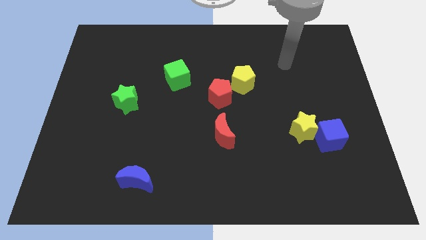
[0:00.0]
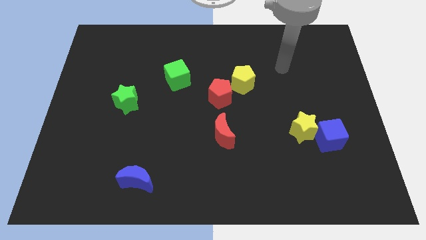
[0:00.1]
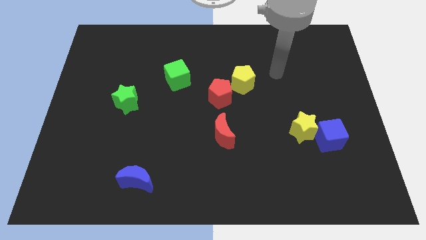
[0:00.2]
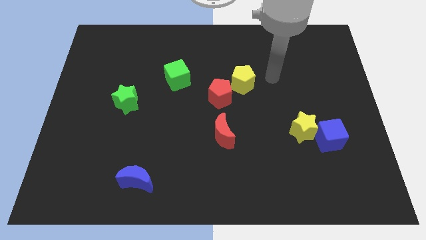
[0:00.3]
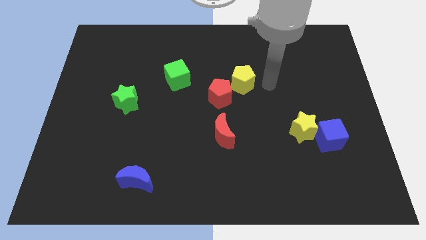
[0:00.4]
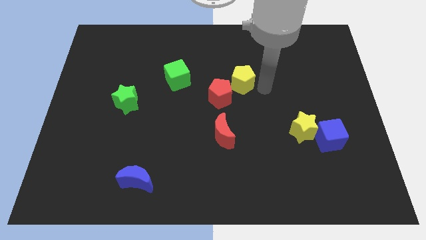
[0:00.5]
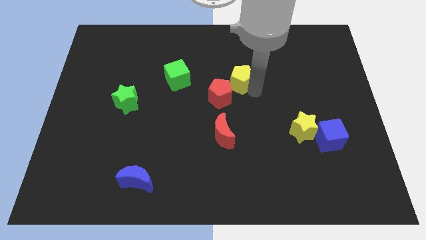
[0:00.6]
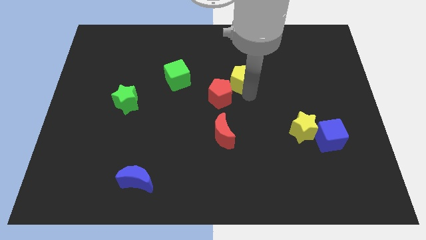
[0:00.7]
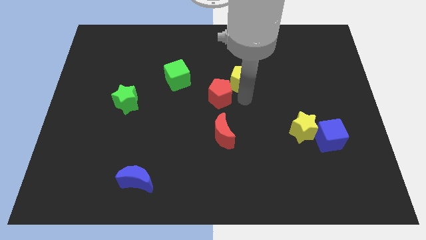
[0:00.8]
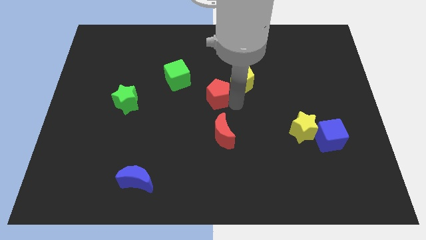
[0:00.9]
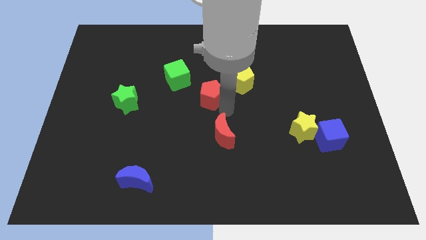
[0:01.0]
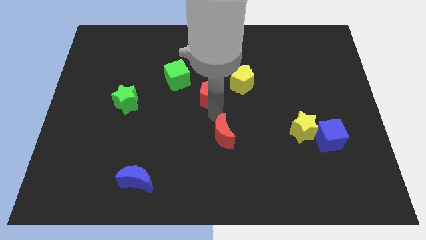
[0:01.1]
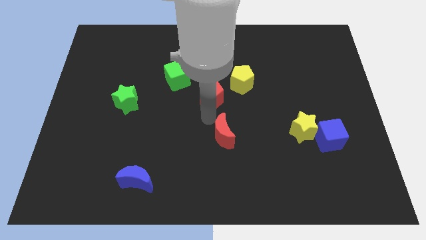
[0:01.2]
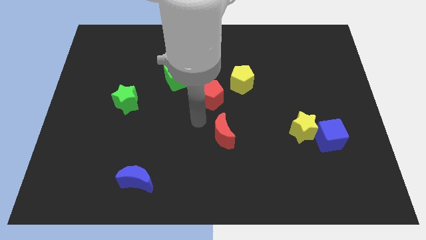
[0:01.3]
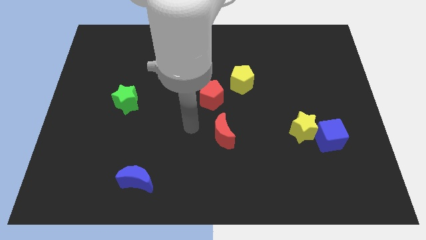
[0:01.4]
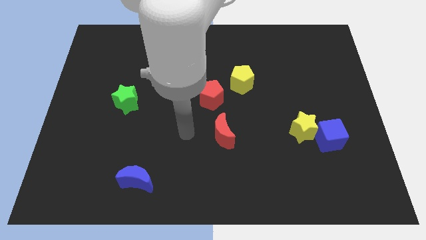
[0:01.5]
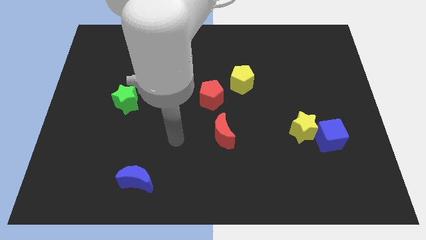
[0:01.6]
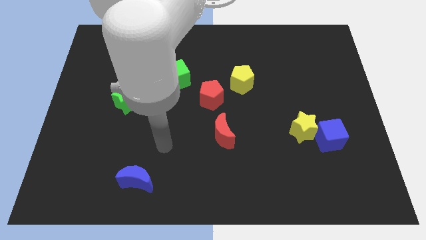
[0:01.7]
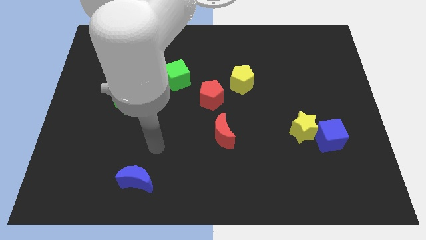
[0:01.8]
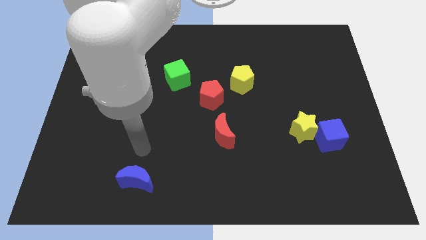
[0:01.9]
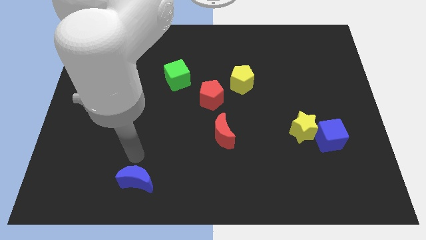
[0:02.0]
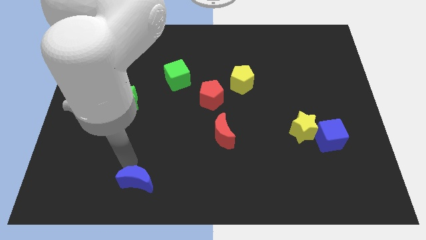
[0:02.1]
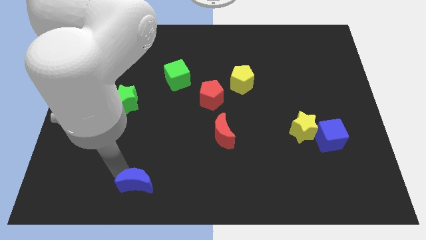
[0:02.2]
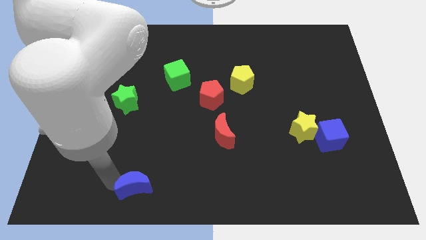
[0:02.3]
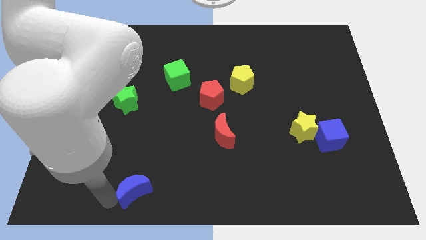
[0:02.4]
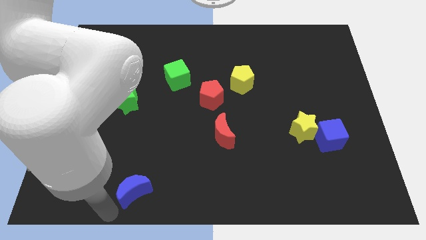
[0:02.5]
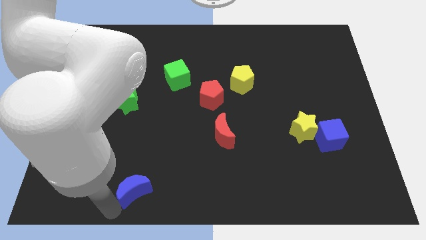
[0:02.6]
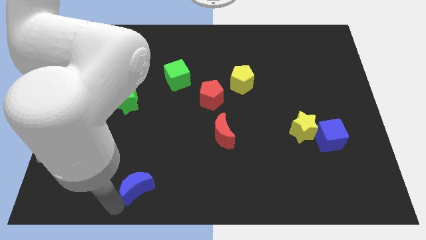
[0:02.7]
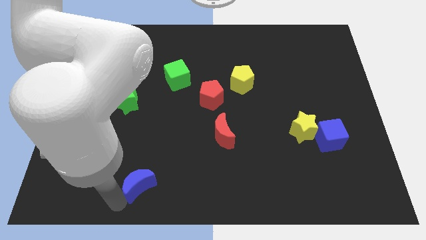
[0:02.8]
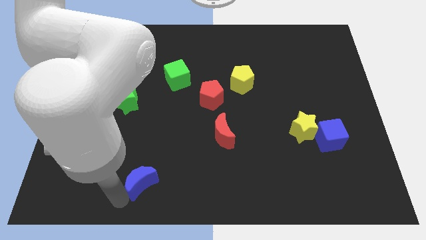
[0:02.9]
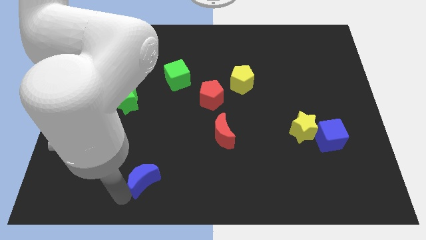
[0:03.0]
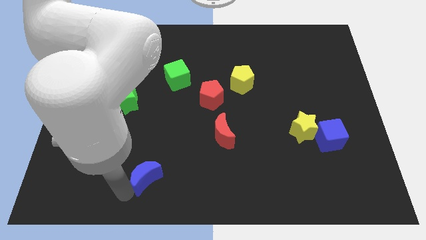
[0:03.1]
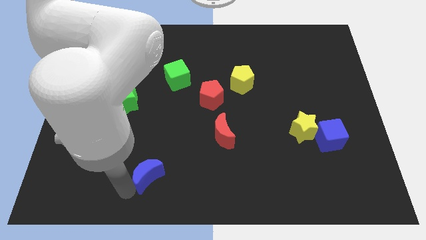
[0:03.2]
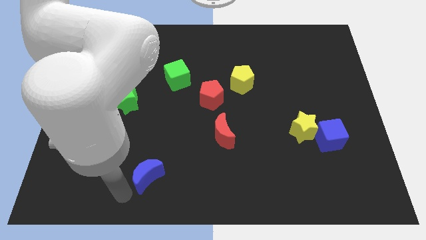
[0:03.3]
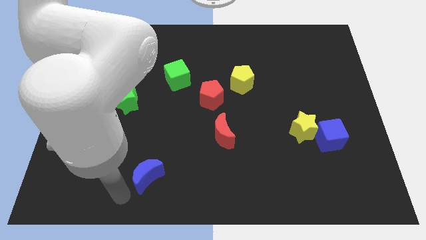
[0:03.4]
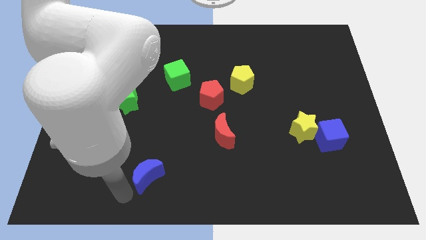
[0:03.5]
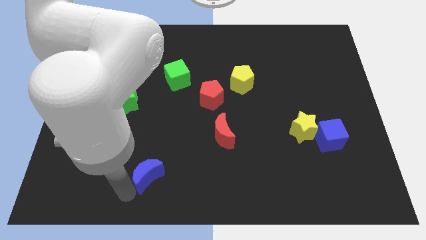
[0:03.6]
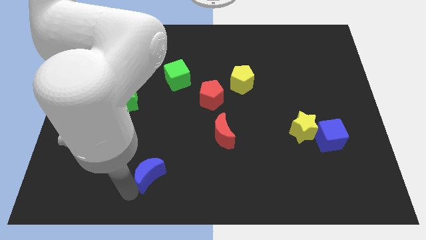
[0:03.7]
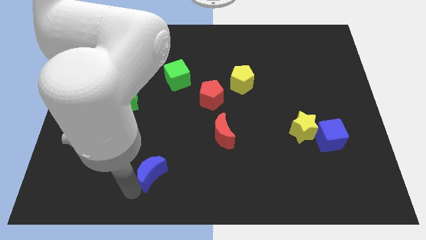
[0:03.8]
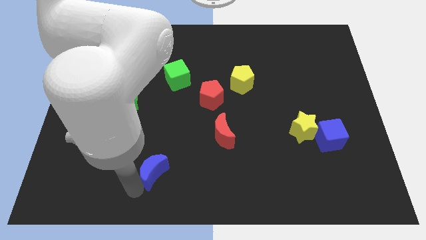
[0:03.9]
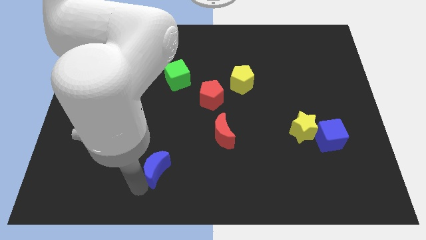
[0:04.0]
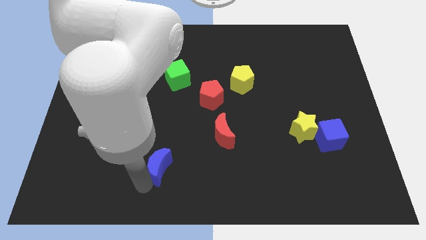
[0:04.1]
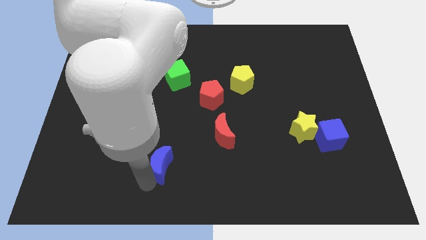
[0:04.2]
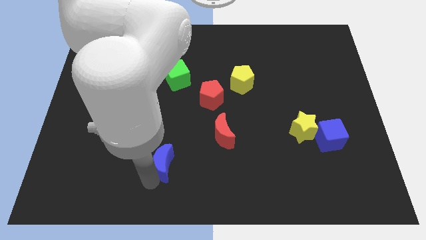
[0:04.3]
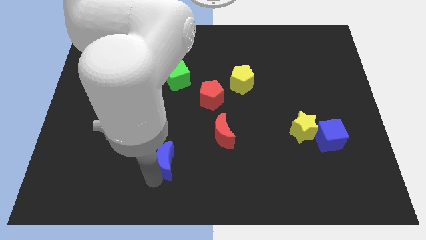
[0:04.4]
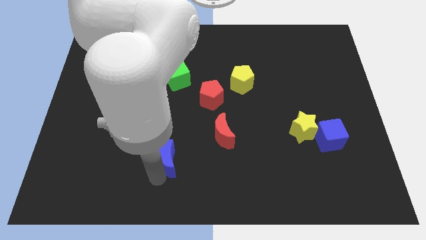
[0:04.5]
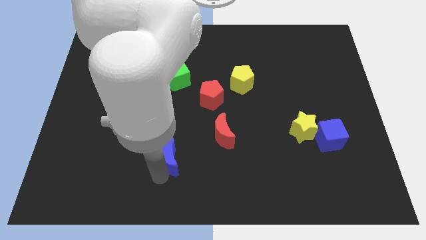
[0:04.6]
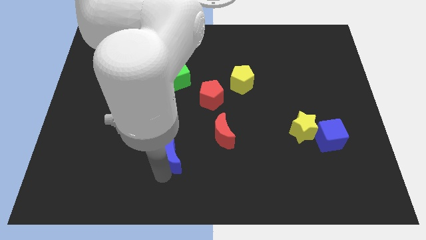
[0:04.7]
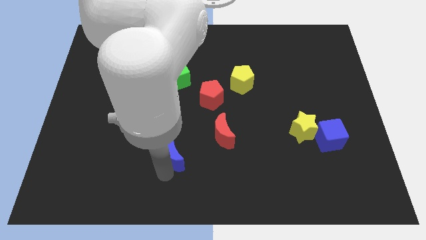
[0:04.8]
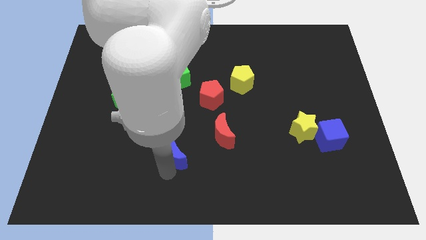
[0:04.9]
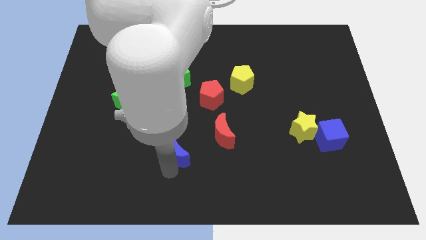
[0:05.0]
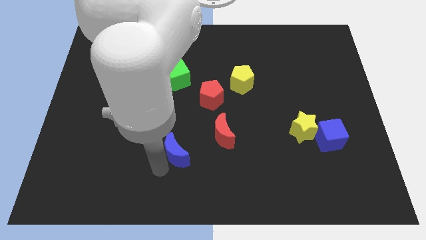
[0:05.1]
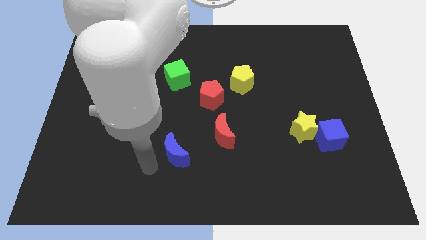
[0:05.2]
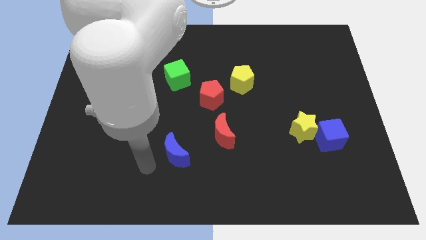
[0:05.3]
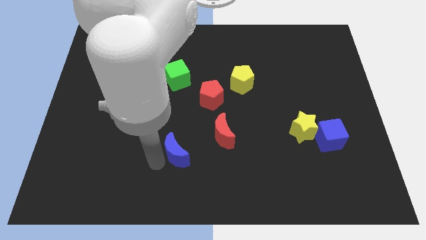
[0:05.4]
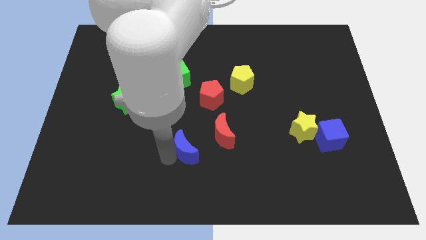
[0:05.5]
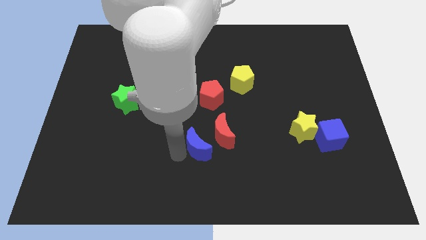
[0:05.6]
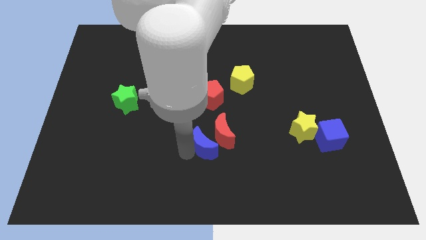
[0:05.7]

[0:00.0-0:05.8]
put the blue moon towards the red moon

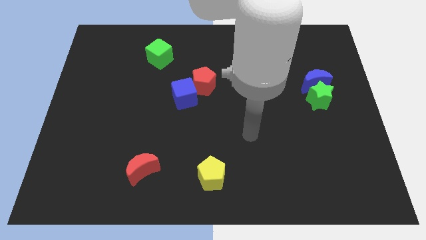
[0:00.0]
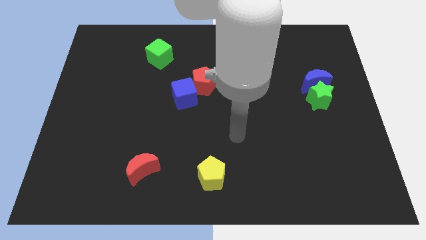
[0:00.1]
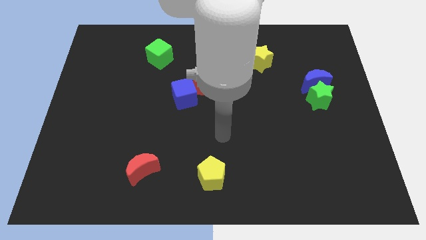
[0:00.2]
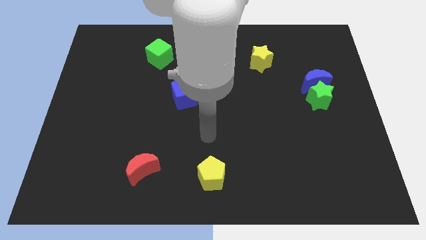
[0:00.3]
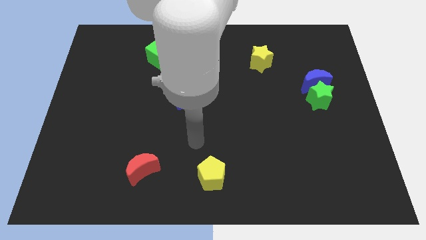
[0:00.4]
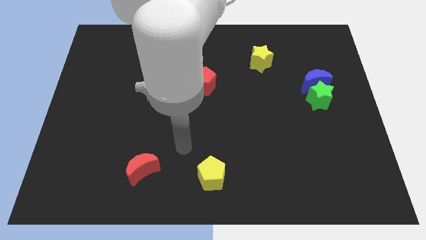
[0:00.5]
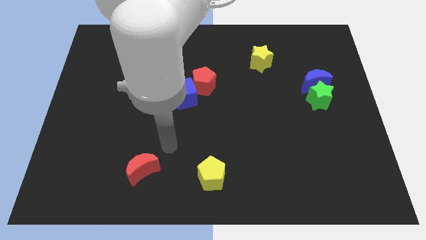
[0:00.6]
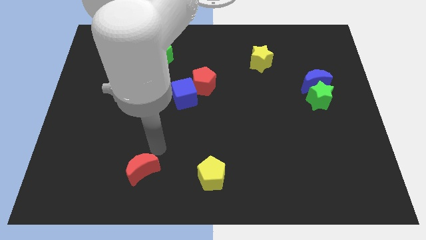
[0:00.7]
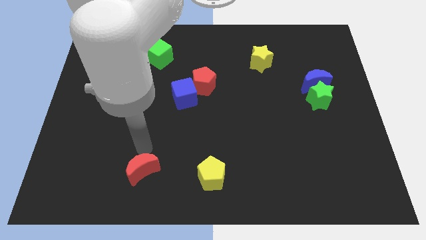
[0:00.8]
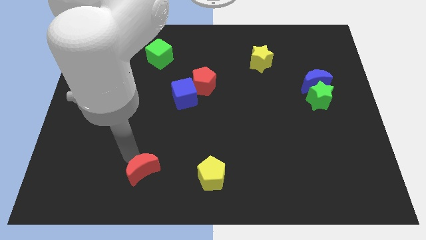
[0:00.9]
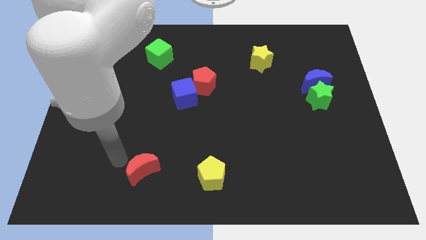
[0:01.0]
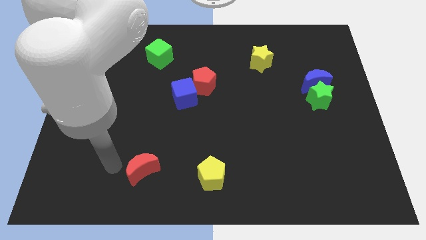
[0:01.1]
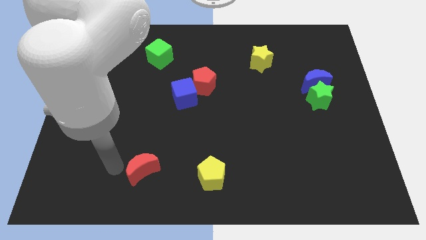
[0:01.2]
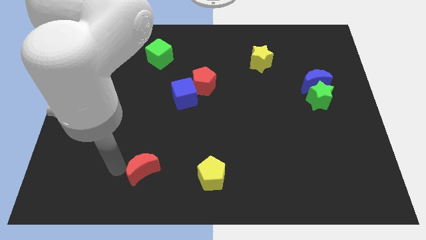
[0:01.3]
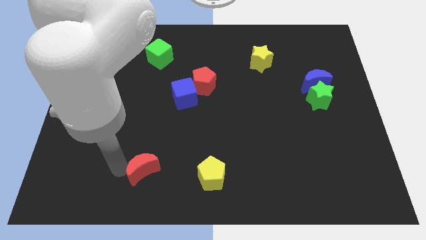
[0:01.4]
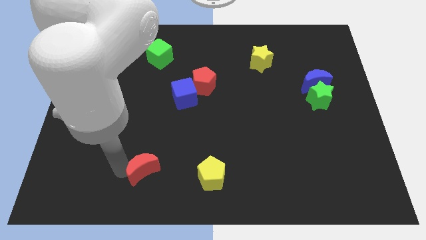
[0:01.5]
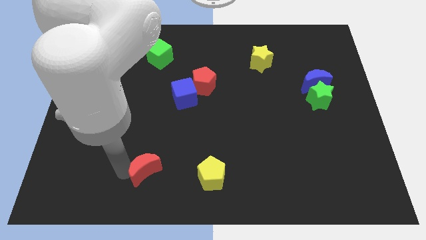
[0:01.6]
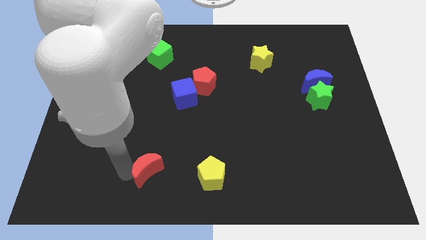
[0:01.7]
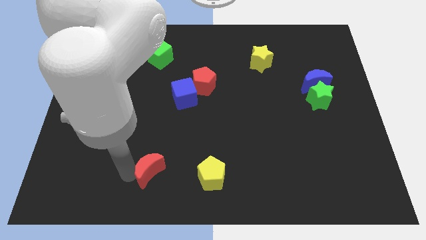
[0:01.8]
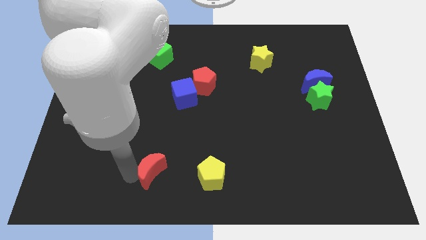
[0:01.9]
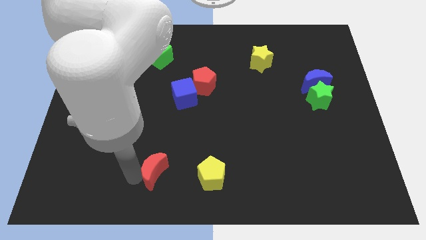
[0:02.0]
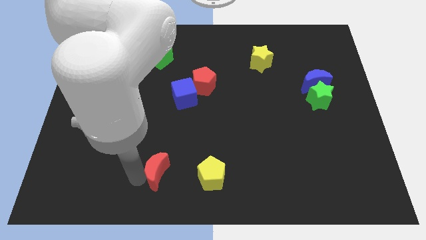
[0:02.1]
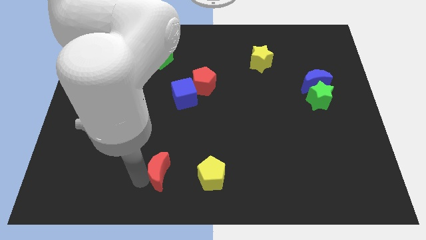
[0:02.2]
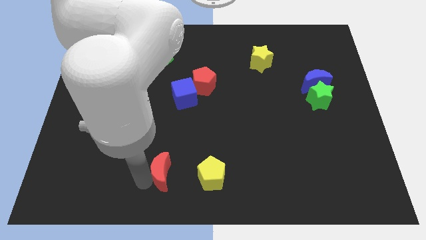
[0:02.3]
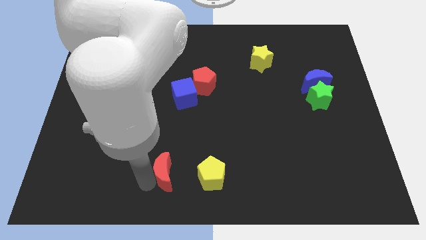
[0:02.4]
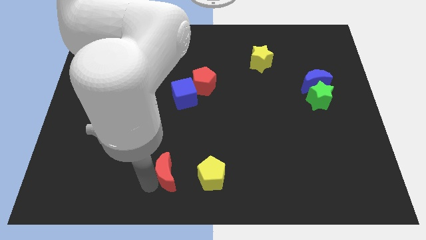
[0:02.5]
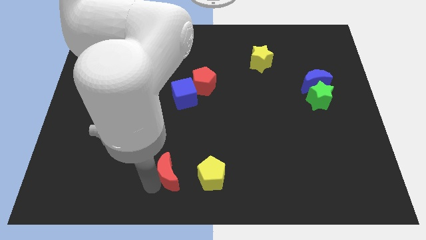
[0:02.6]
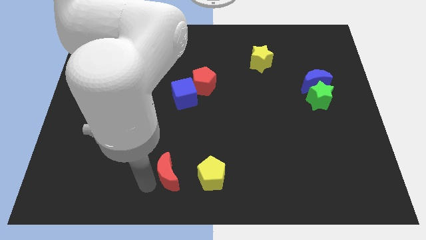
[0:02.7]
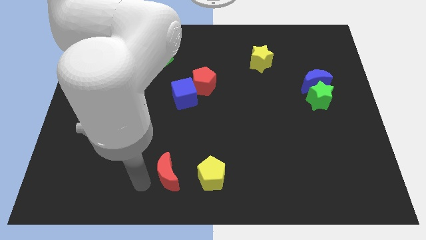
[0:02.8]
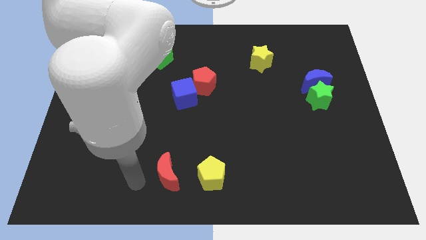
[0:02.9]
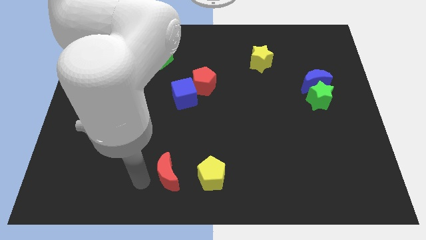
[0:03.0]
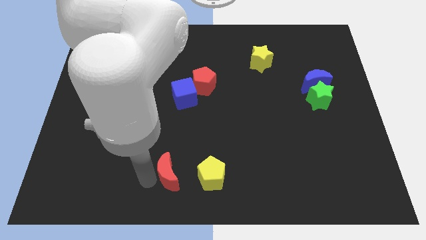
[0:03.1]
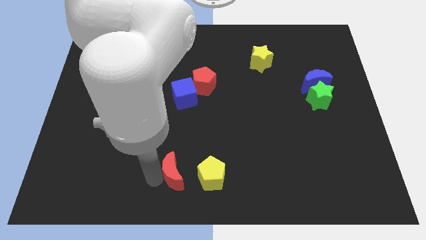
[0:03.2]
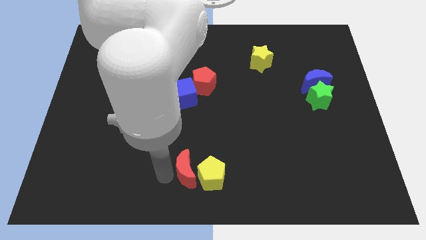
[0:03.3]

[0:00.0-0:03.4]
slide the red moon to the yellow pentagon
